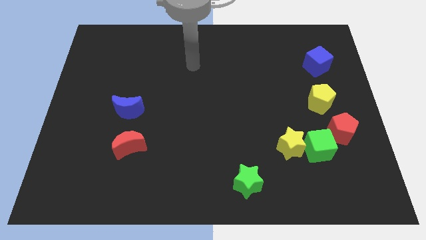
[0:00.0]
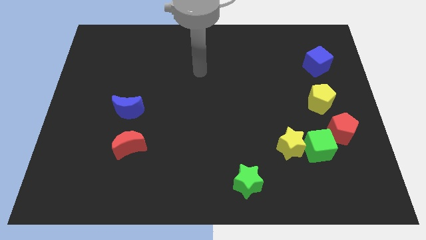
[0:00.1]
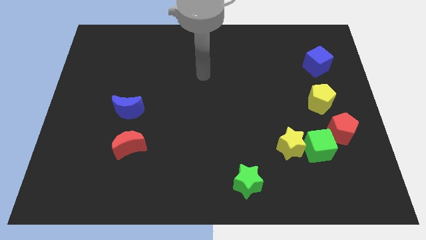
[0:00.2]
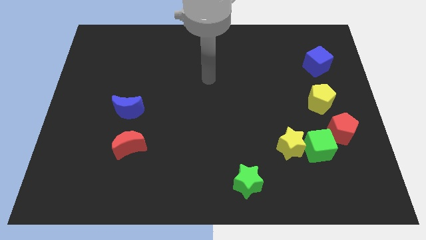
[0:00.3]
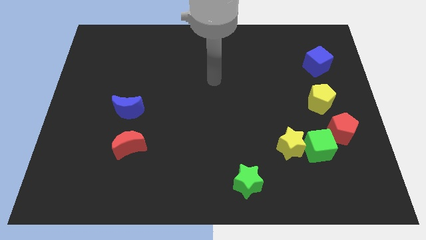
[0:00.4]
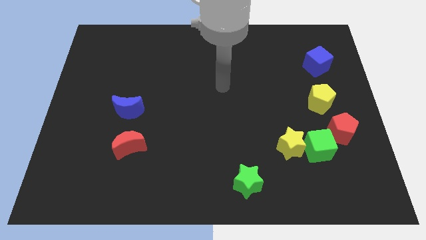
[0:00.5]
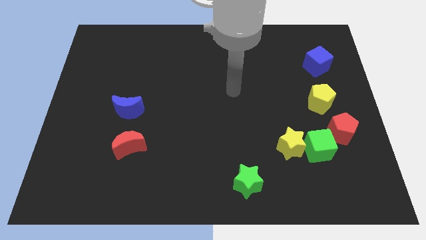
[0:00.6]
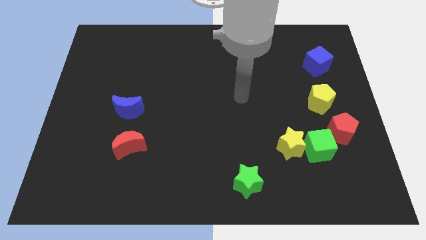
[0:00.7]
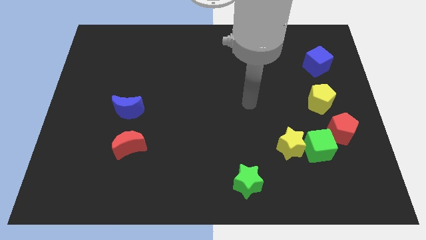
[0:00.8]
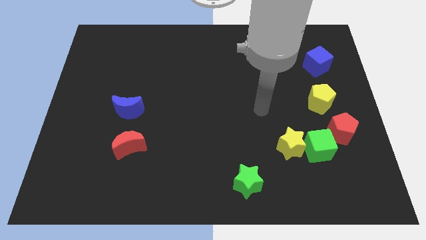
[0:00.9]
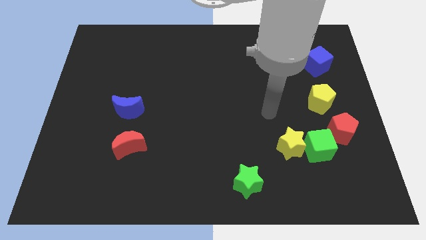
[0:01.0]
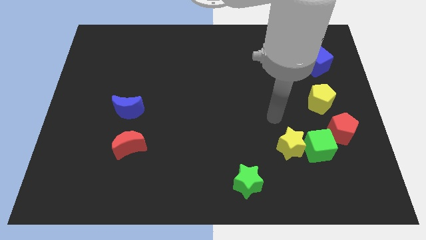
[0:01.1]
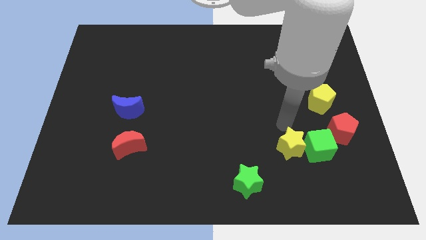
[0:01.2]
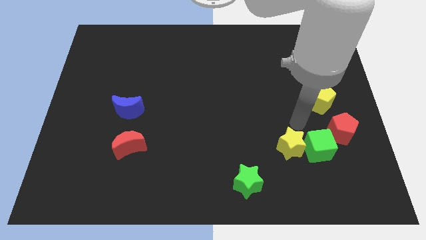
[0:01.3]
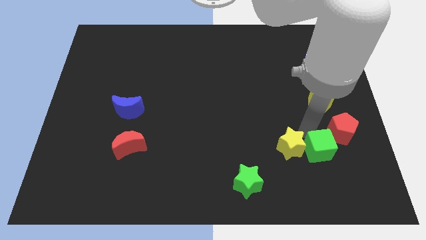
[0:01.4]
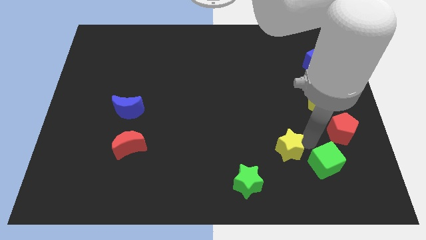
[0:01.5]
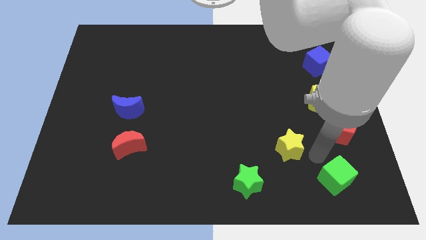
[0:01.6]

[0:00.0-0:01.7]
separate the yellow star from the green cube

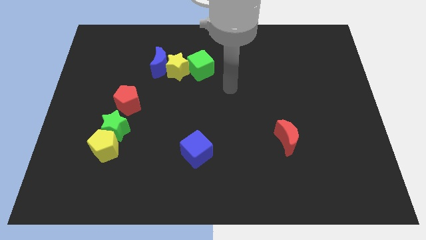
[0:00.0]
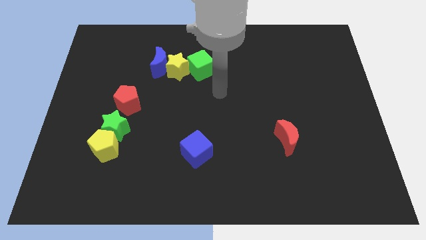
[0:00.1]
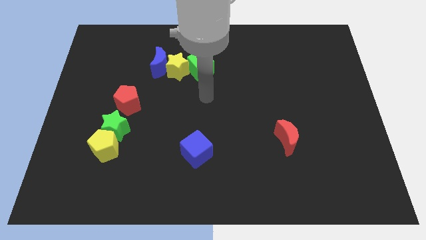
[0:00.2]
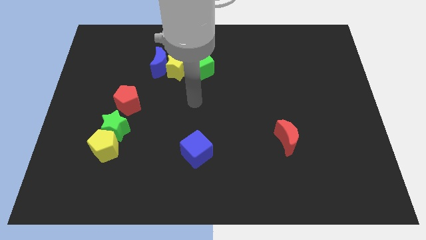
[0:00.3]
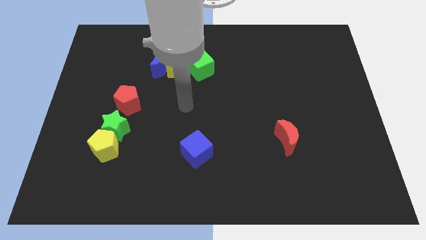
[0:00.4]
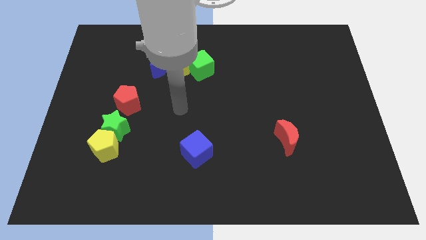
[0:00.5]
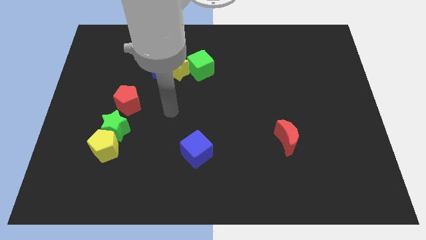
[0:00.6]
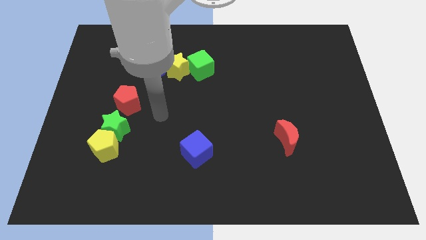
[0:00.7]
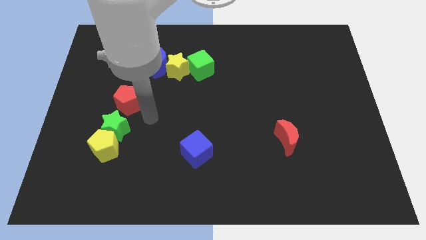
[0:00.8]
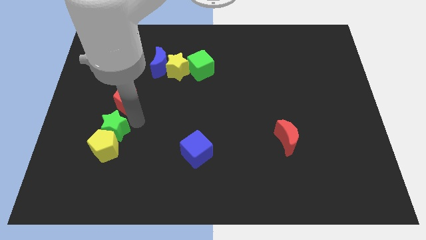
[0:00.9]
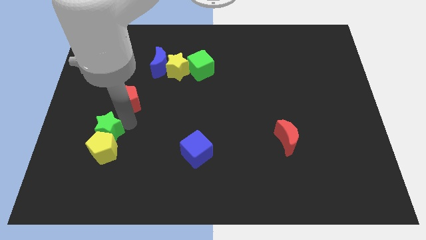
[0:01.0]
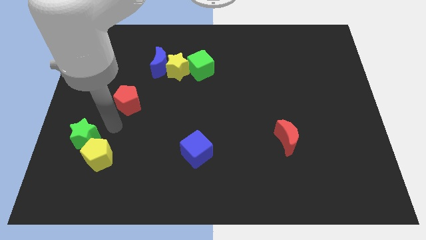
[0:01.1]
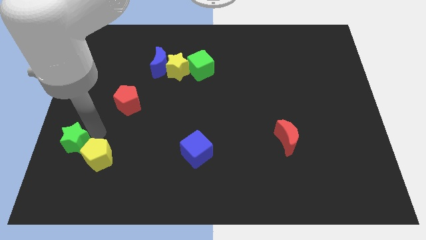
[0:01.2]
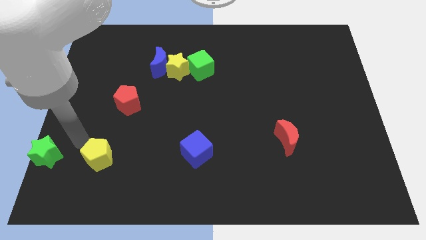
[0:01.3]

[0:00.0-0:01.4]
move the yellow pentagon away from the green star

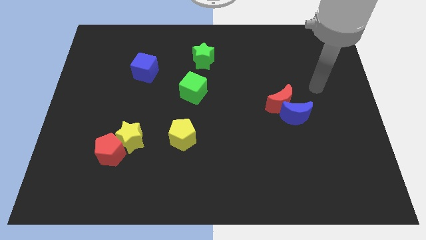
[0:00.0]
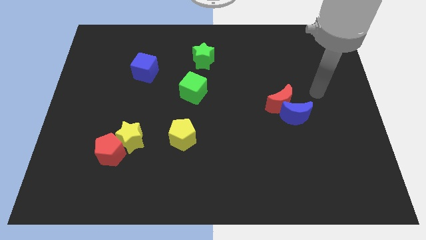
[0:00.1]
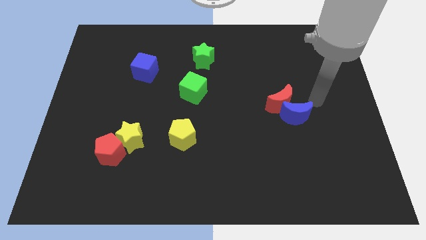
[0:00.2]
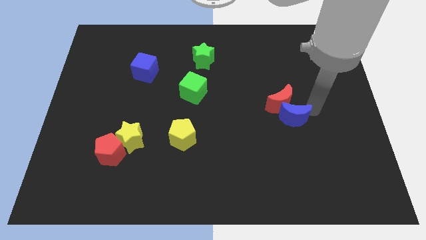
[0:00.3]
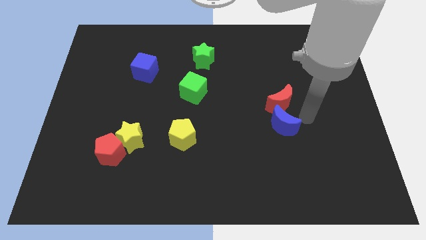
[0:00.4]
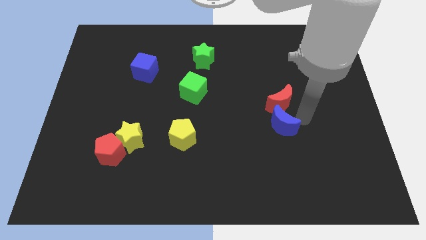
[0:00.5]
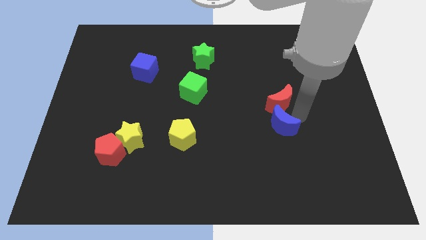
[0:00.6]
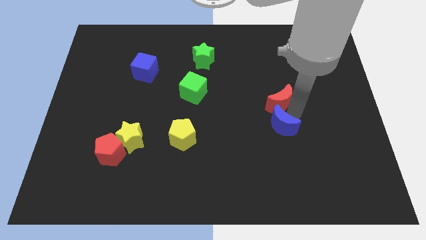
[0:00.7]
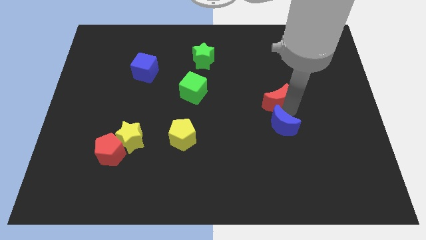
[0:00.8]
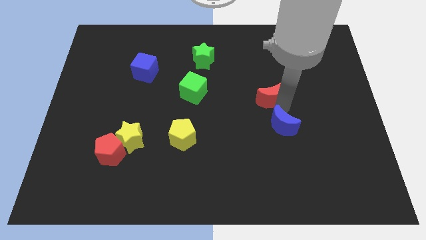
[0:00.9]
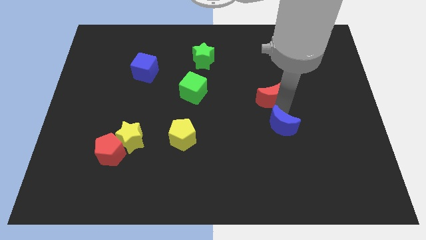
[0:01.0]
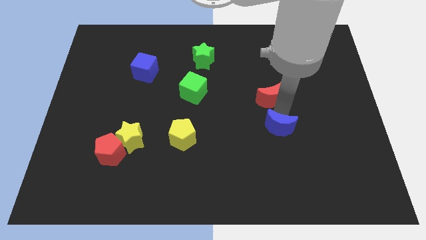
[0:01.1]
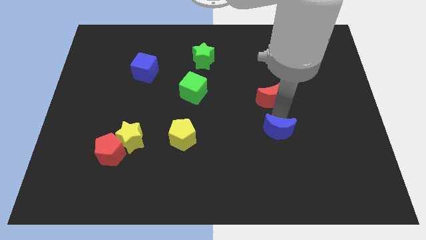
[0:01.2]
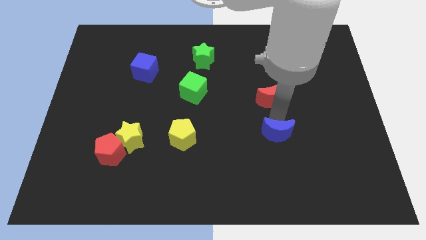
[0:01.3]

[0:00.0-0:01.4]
pull the red moon apart from the blue moon

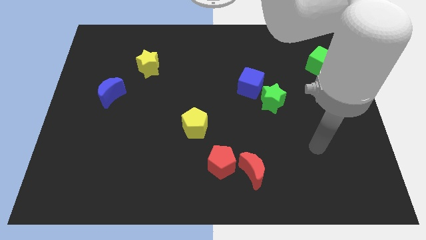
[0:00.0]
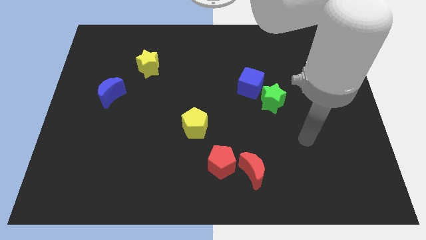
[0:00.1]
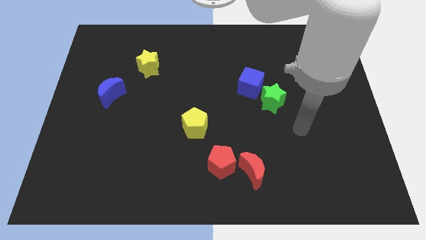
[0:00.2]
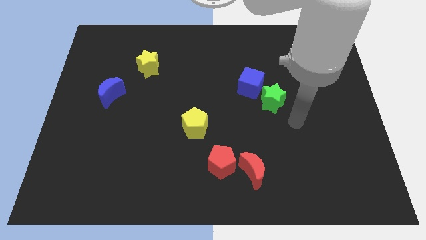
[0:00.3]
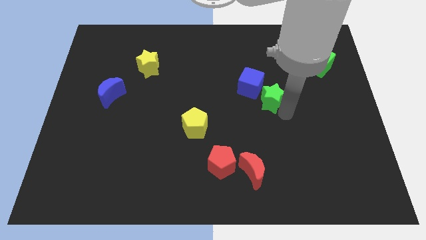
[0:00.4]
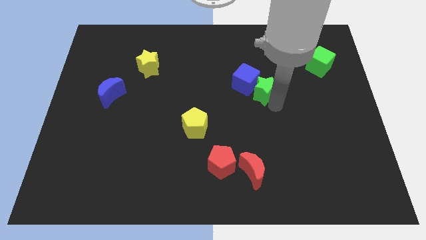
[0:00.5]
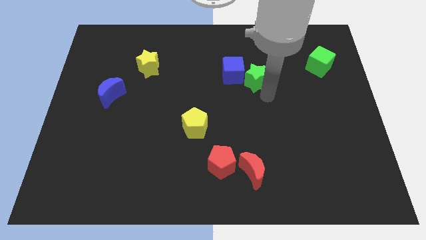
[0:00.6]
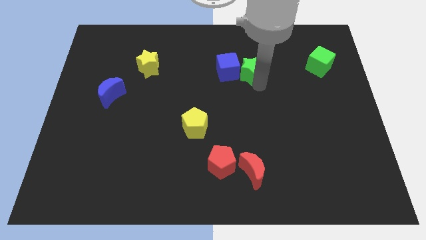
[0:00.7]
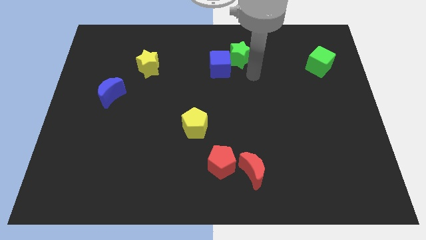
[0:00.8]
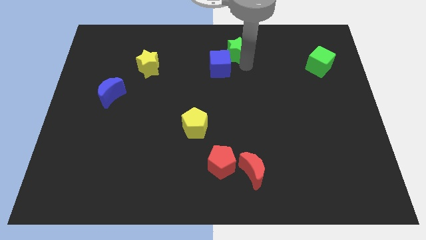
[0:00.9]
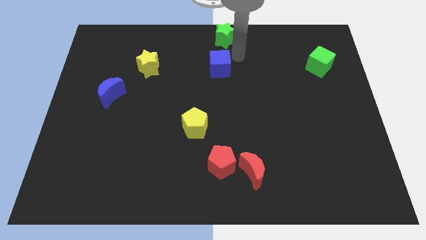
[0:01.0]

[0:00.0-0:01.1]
pull the blue cube apart from the green star

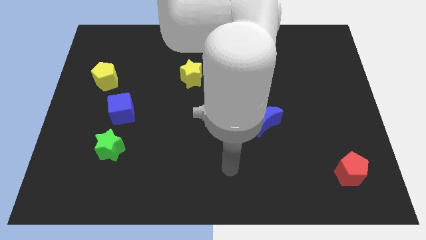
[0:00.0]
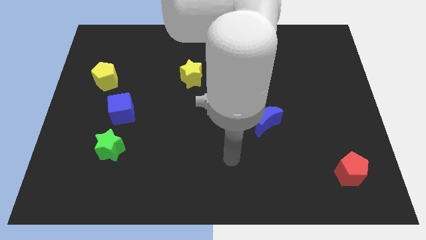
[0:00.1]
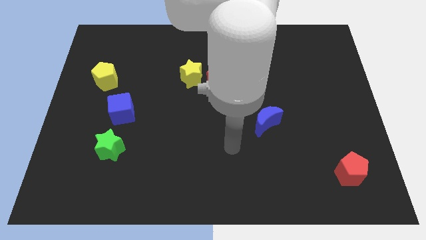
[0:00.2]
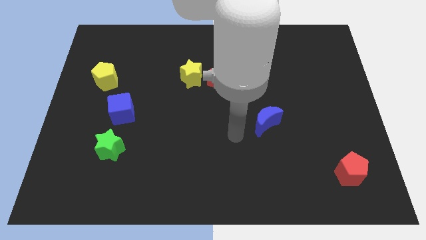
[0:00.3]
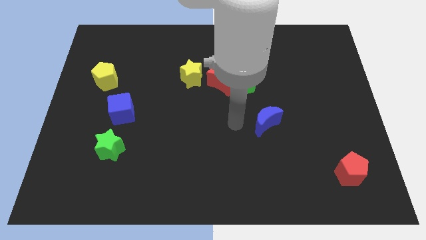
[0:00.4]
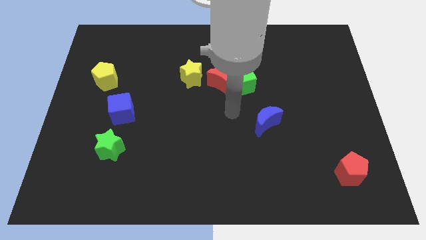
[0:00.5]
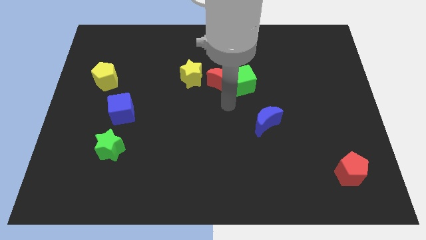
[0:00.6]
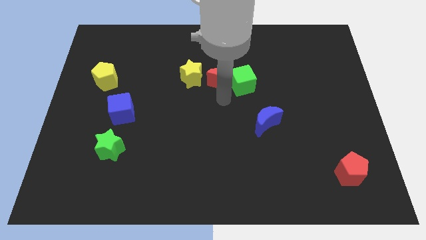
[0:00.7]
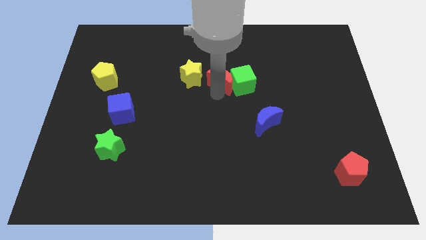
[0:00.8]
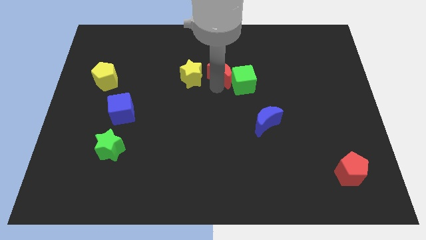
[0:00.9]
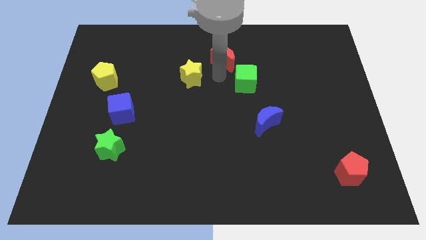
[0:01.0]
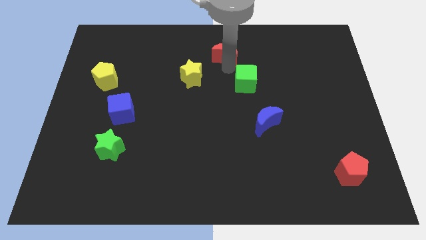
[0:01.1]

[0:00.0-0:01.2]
separate the green cube from the red moon

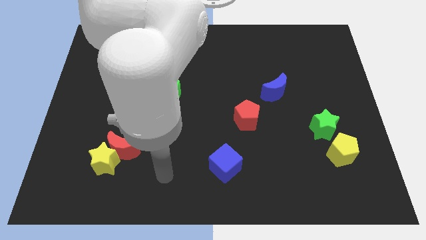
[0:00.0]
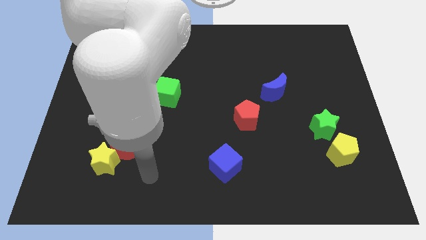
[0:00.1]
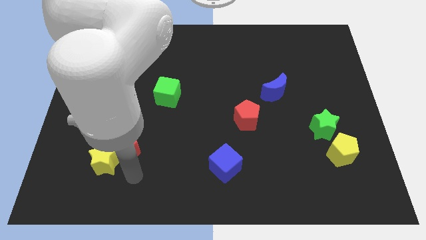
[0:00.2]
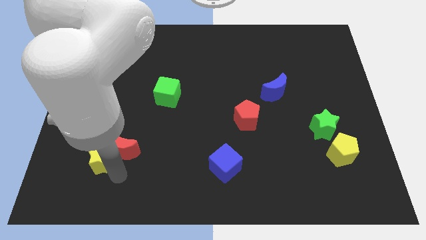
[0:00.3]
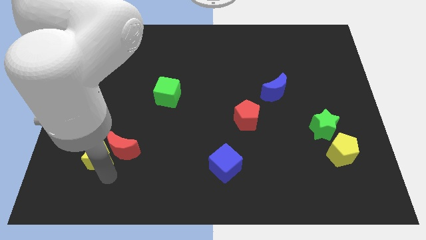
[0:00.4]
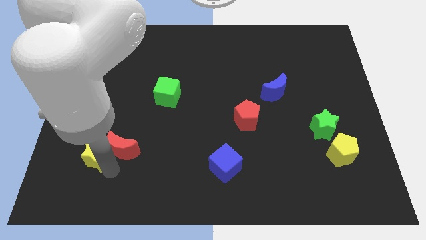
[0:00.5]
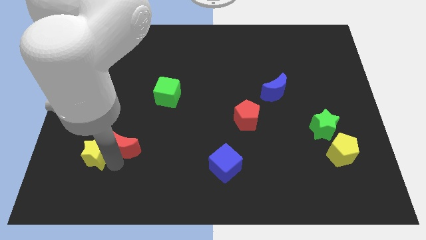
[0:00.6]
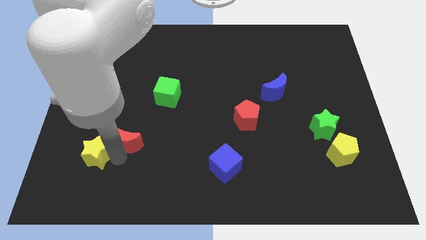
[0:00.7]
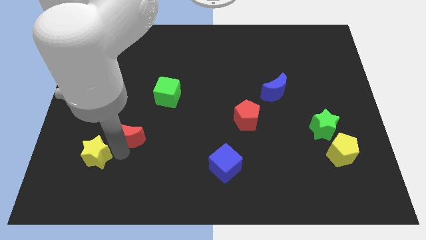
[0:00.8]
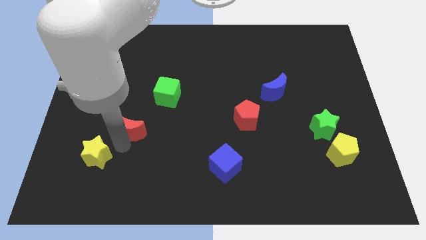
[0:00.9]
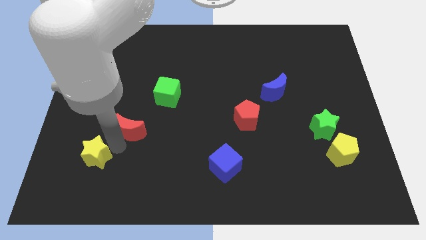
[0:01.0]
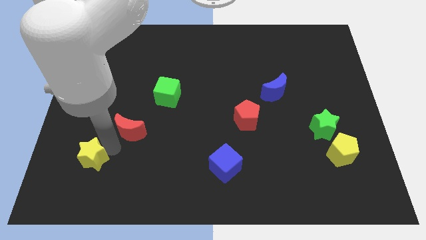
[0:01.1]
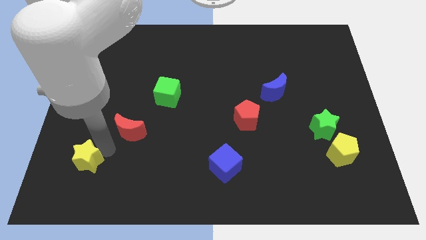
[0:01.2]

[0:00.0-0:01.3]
pull the red moon apart from the yellow star

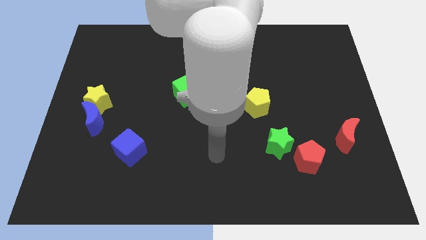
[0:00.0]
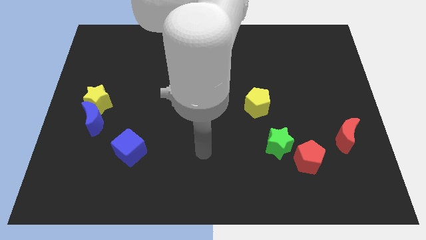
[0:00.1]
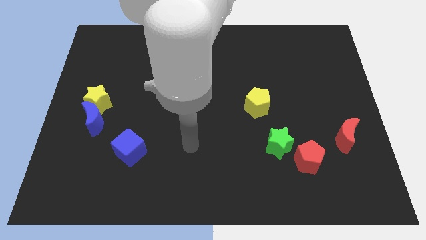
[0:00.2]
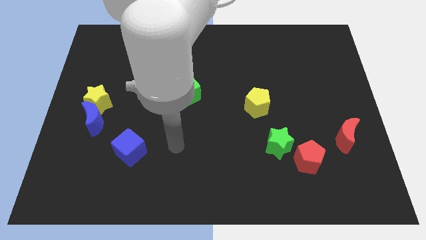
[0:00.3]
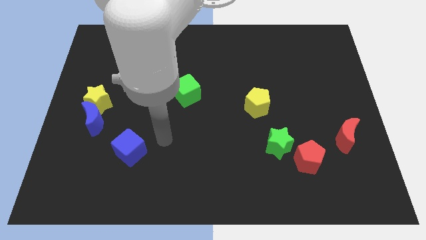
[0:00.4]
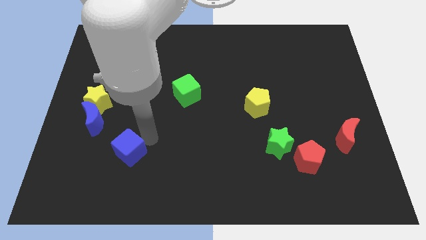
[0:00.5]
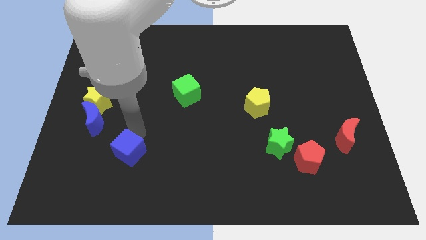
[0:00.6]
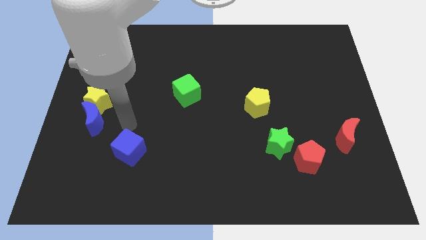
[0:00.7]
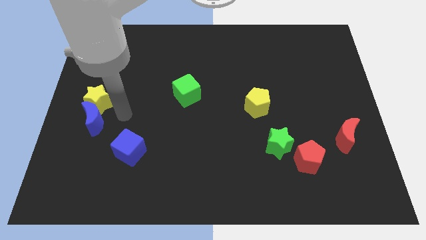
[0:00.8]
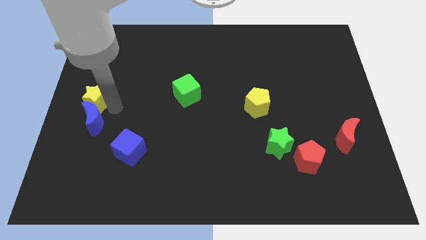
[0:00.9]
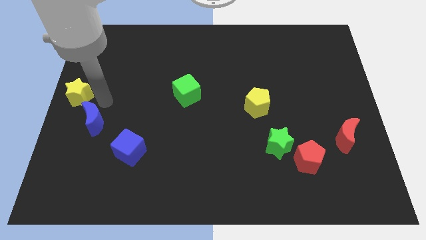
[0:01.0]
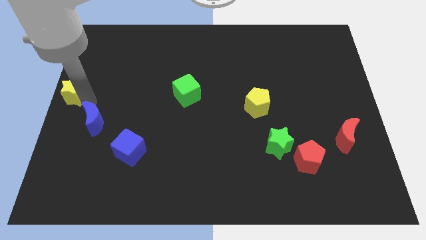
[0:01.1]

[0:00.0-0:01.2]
move the blue moon away from the yellow star
